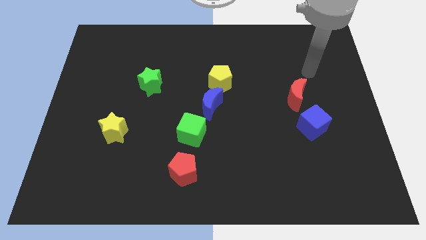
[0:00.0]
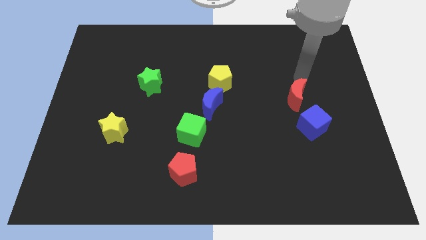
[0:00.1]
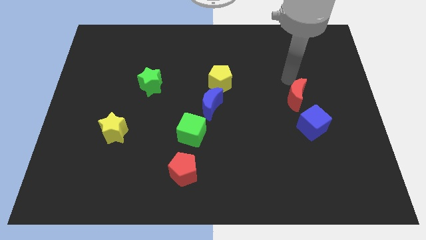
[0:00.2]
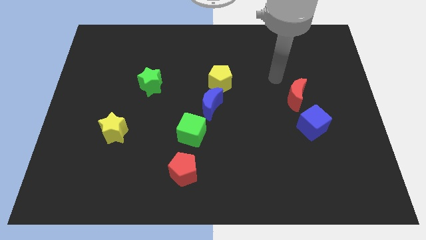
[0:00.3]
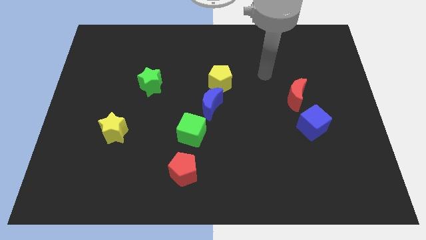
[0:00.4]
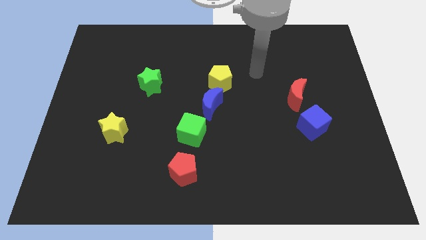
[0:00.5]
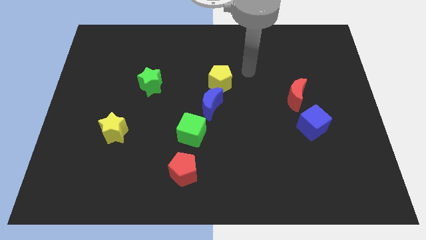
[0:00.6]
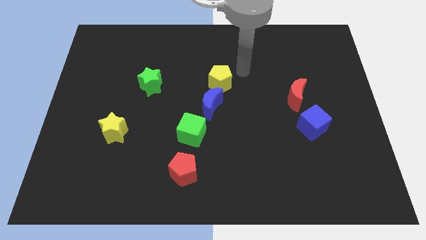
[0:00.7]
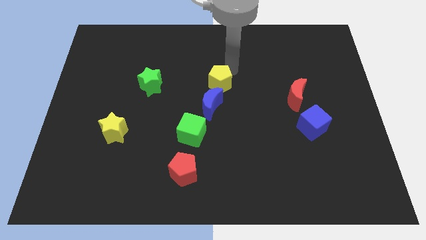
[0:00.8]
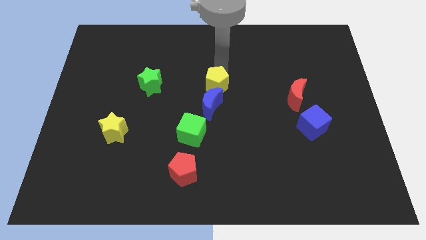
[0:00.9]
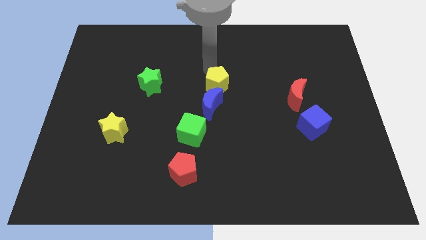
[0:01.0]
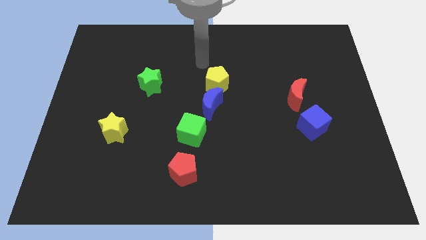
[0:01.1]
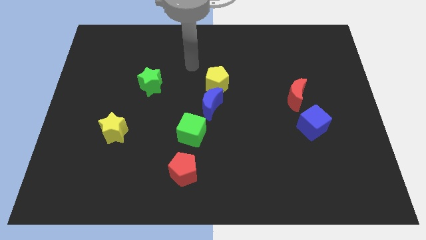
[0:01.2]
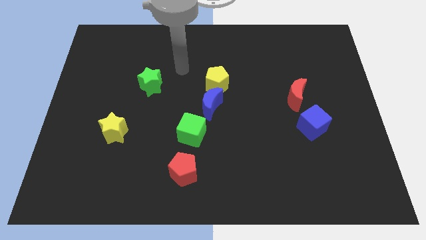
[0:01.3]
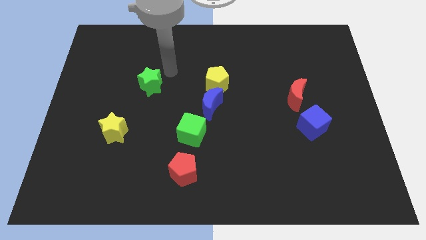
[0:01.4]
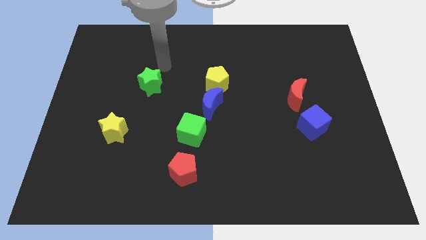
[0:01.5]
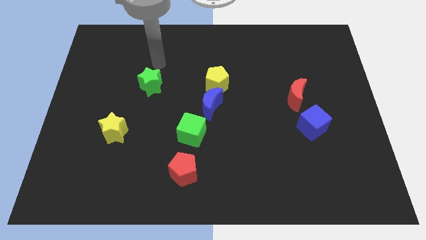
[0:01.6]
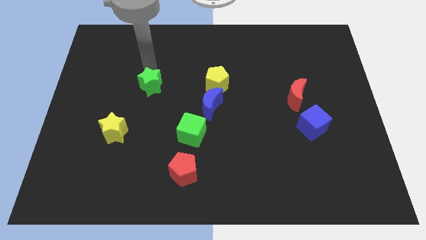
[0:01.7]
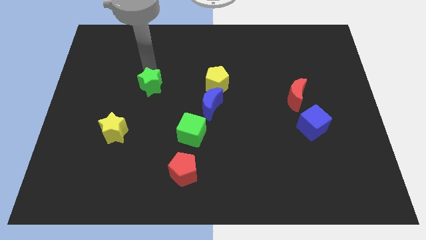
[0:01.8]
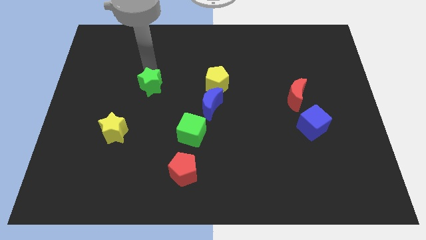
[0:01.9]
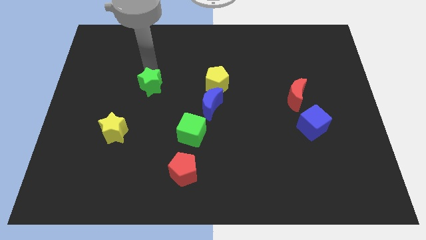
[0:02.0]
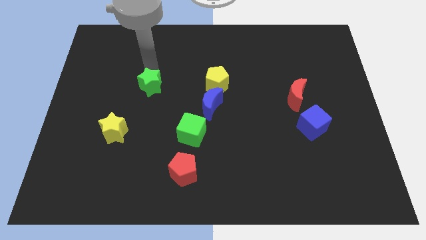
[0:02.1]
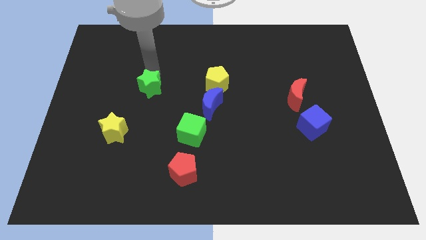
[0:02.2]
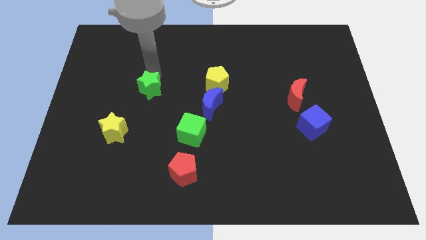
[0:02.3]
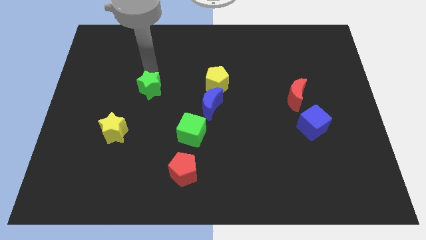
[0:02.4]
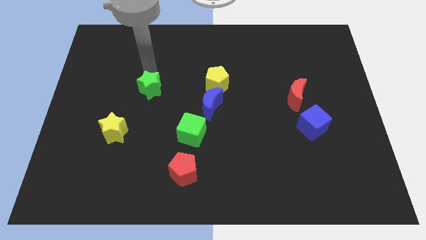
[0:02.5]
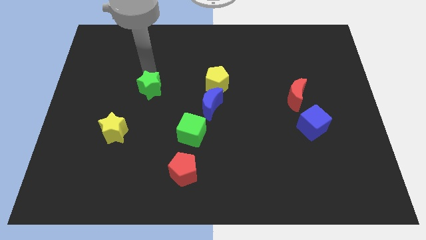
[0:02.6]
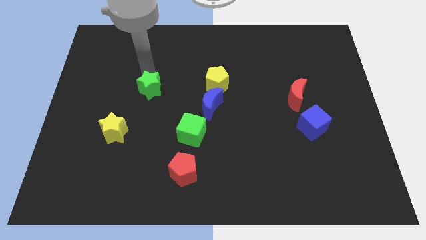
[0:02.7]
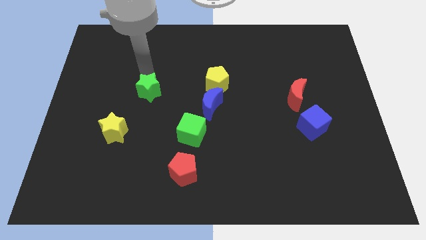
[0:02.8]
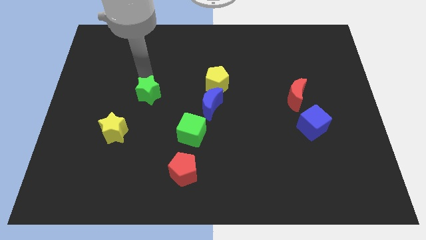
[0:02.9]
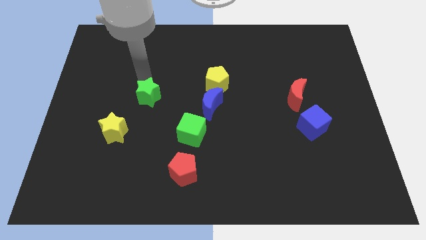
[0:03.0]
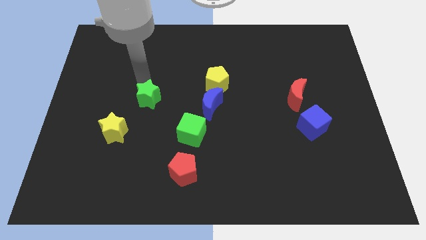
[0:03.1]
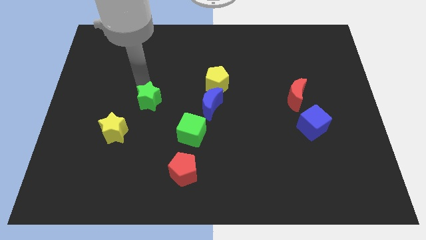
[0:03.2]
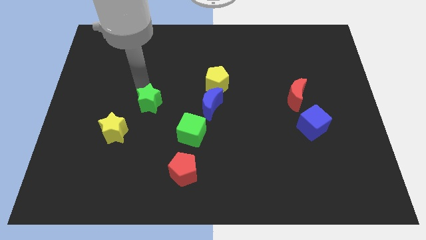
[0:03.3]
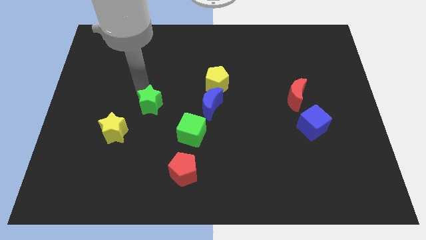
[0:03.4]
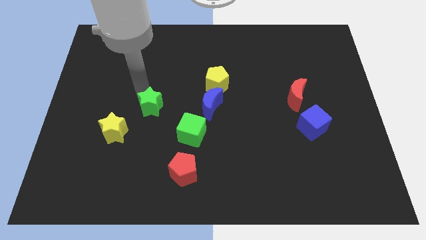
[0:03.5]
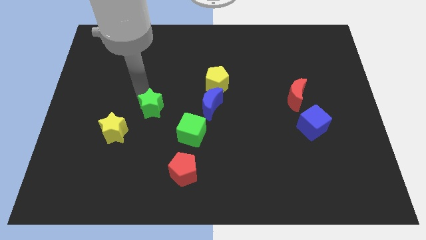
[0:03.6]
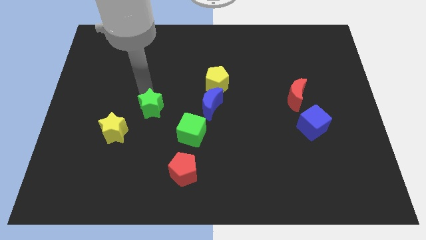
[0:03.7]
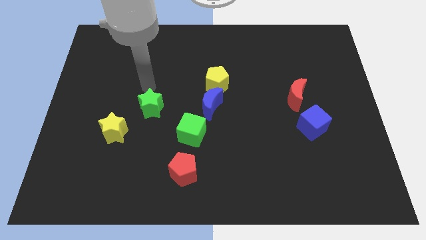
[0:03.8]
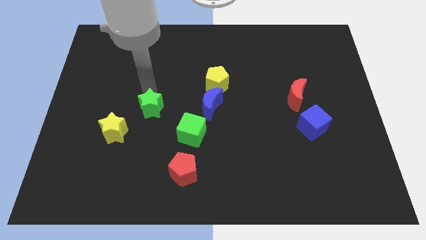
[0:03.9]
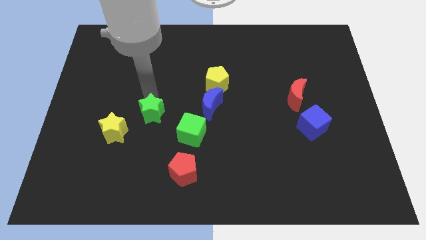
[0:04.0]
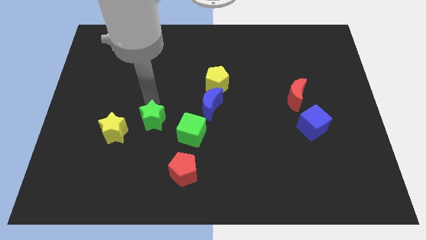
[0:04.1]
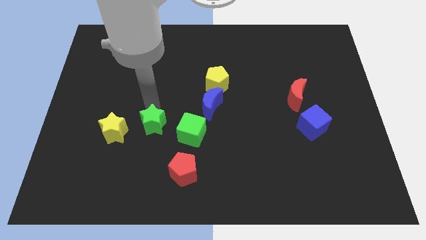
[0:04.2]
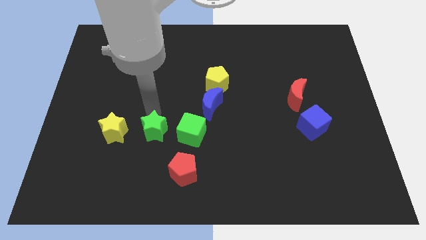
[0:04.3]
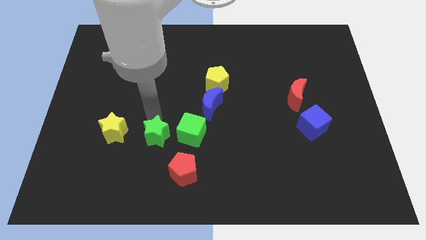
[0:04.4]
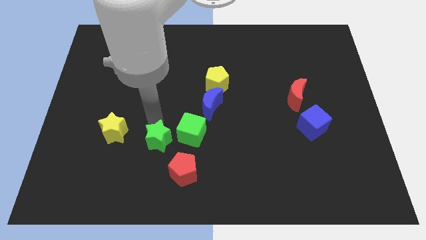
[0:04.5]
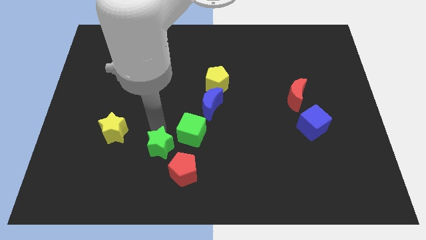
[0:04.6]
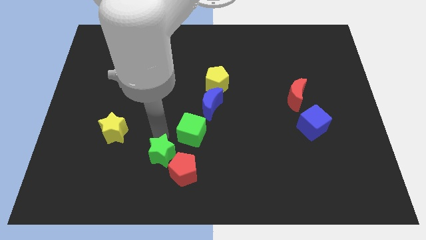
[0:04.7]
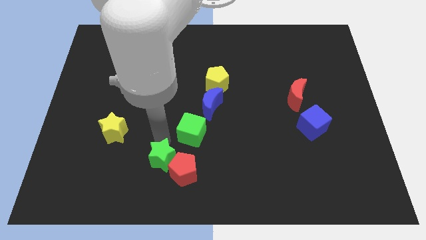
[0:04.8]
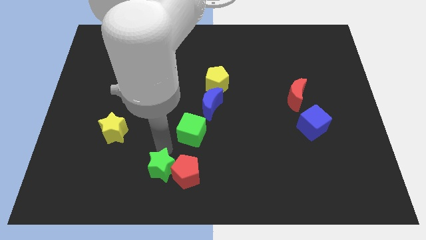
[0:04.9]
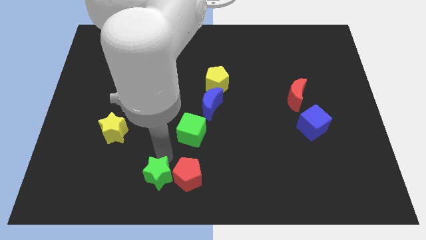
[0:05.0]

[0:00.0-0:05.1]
push the green star to the bottom

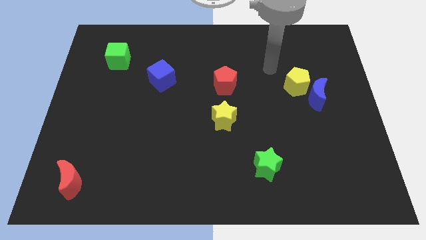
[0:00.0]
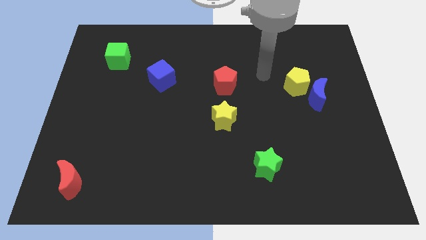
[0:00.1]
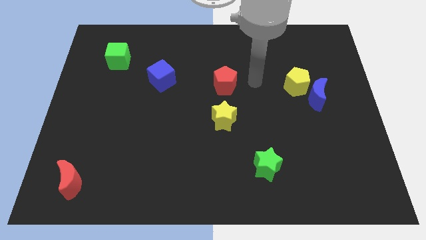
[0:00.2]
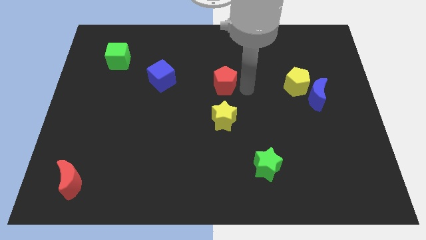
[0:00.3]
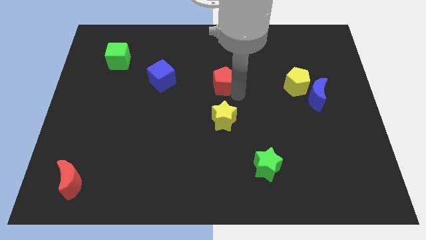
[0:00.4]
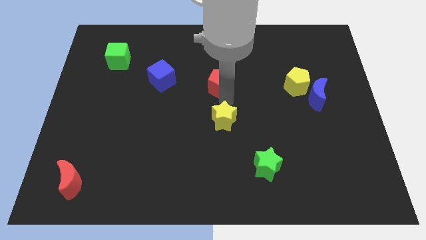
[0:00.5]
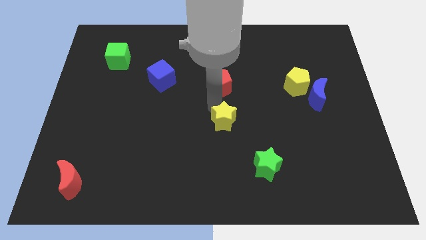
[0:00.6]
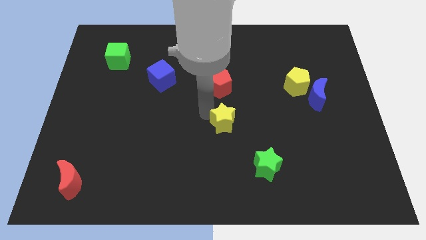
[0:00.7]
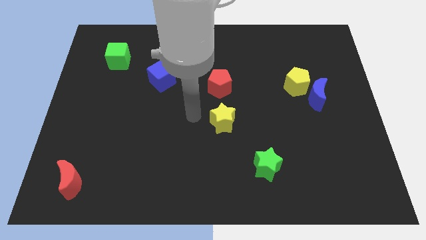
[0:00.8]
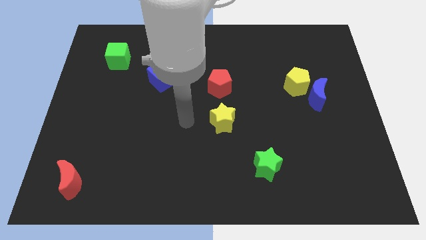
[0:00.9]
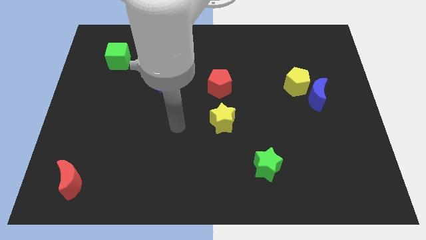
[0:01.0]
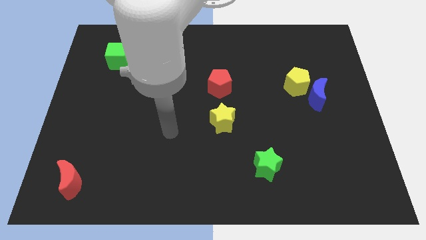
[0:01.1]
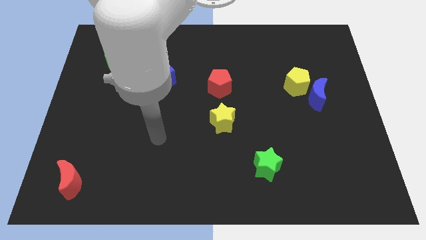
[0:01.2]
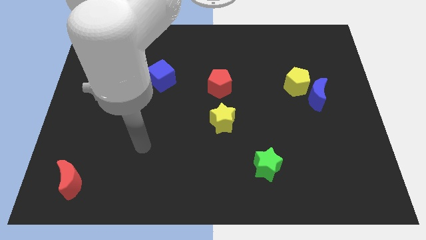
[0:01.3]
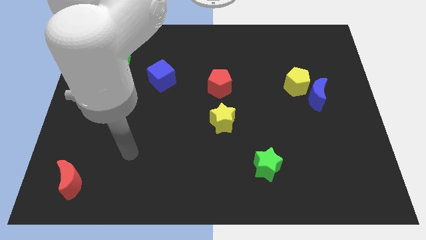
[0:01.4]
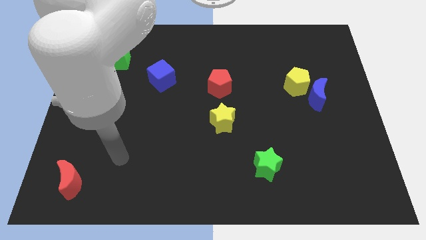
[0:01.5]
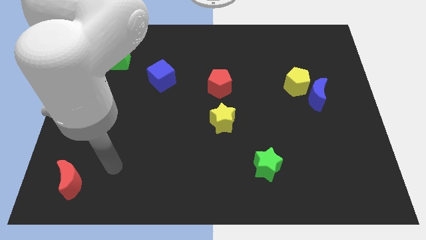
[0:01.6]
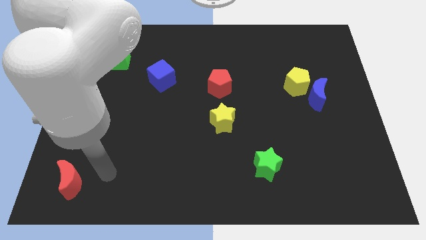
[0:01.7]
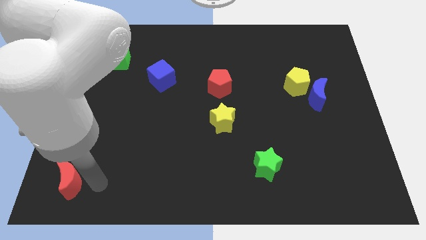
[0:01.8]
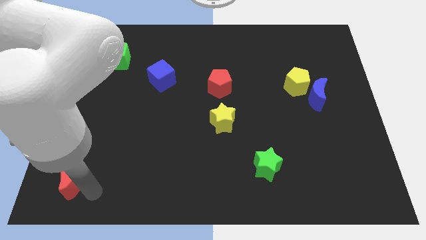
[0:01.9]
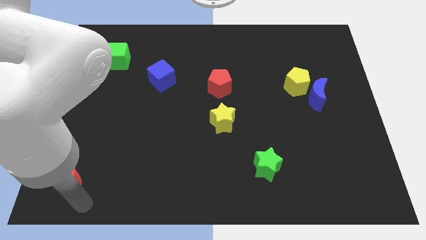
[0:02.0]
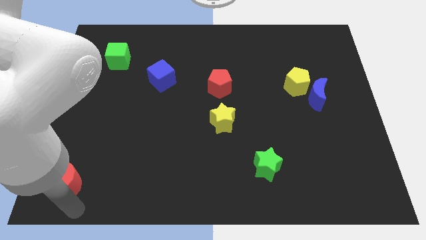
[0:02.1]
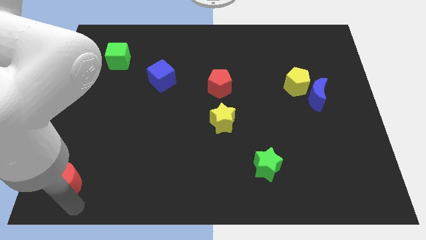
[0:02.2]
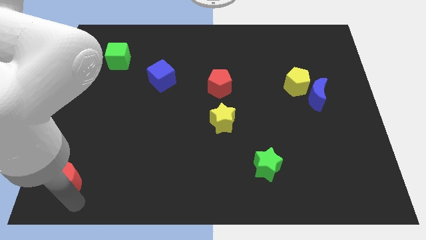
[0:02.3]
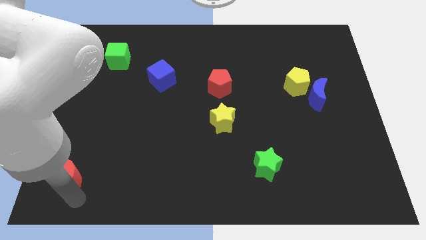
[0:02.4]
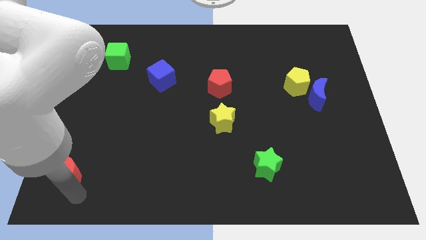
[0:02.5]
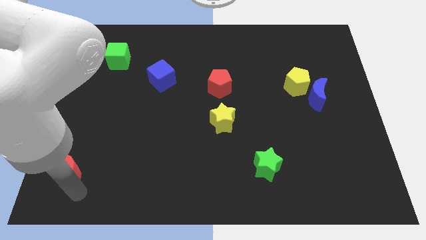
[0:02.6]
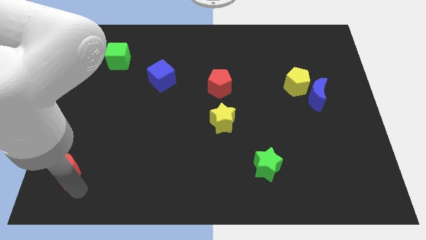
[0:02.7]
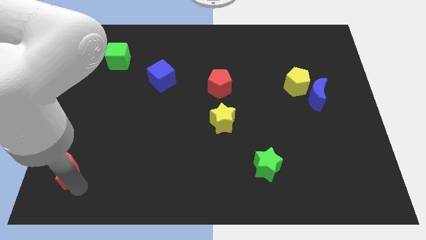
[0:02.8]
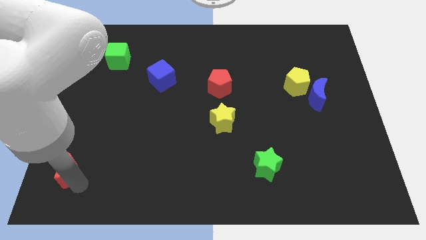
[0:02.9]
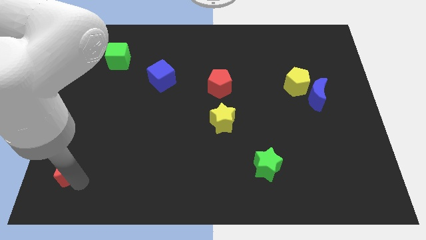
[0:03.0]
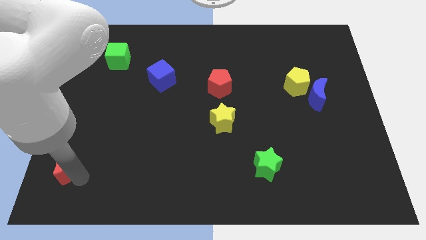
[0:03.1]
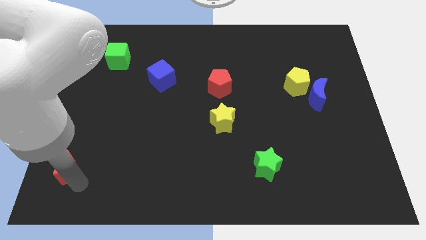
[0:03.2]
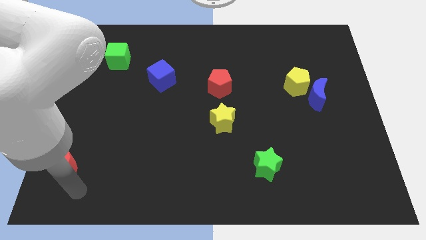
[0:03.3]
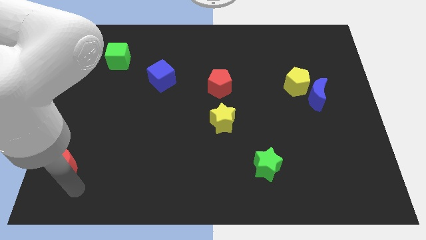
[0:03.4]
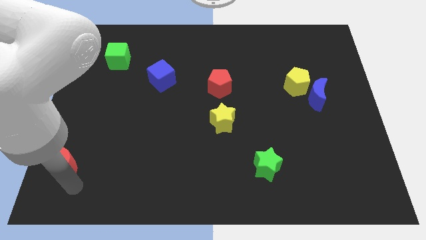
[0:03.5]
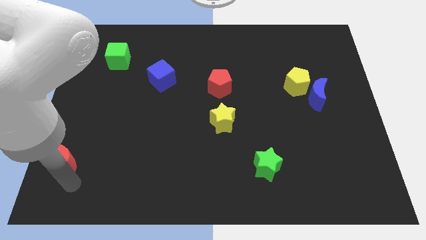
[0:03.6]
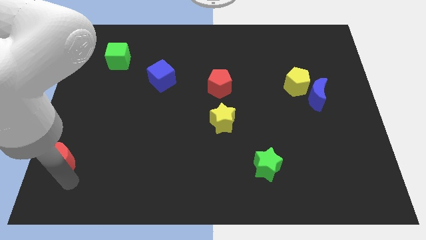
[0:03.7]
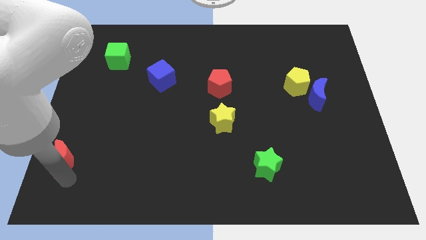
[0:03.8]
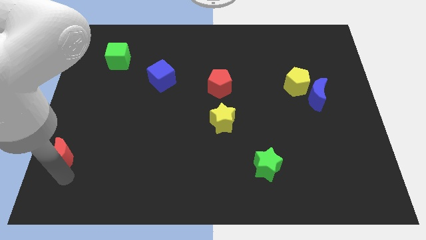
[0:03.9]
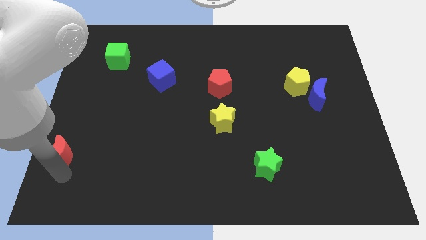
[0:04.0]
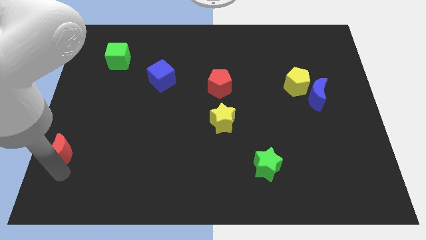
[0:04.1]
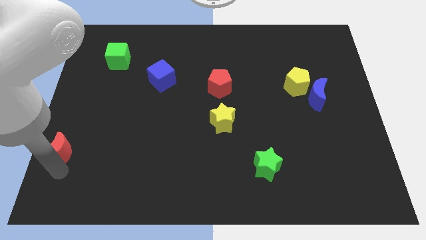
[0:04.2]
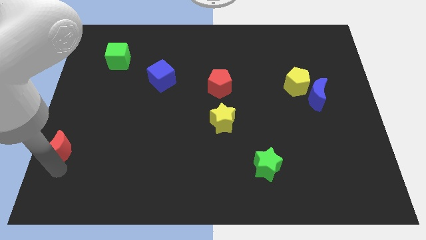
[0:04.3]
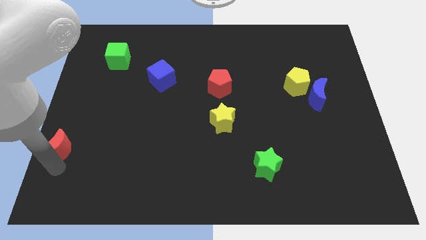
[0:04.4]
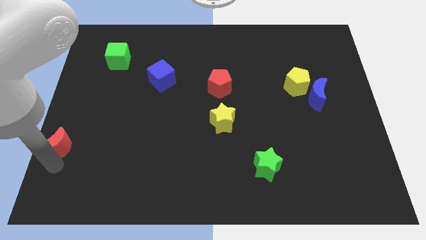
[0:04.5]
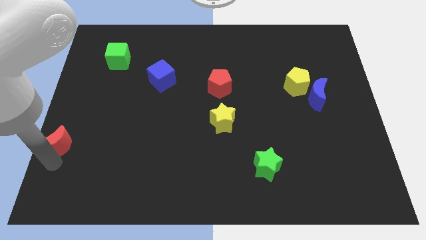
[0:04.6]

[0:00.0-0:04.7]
push the red moon to the center left
